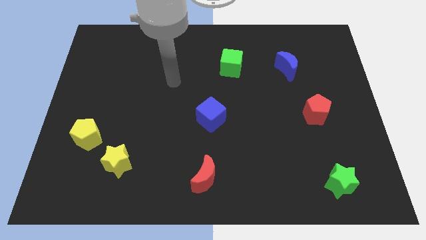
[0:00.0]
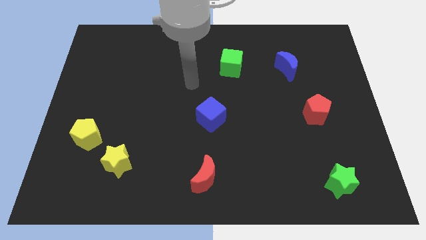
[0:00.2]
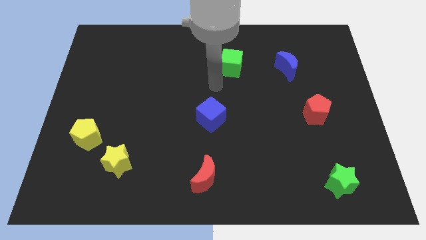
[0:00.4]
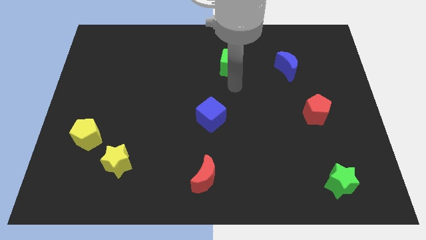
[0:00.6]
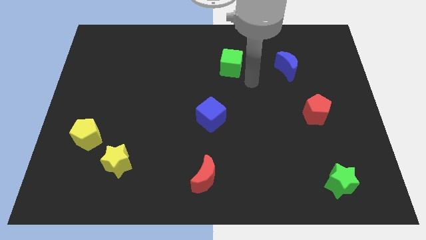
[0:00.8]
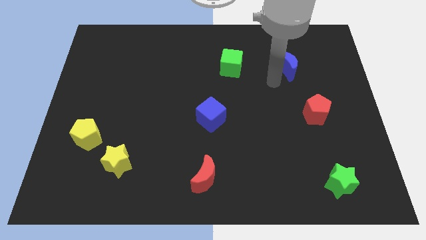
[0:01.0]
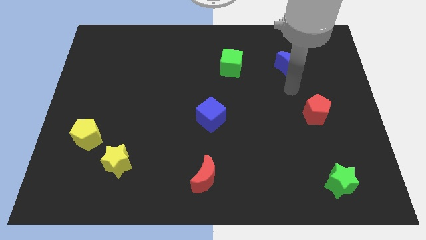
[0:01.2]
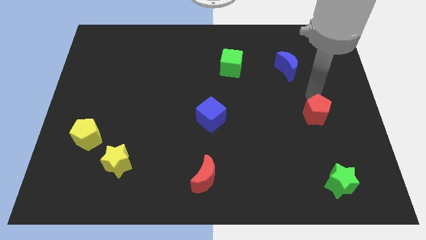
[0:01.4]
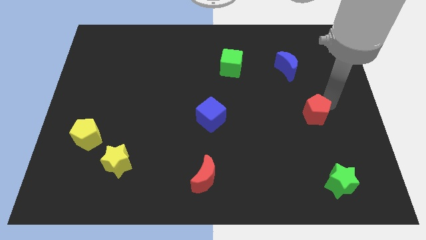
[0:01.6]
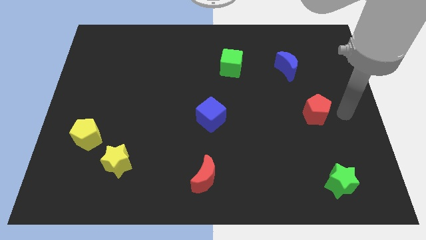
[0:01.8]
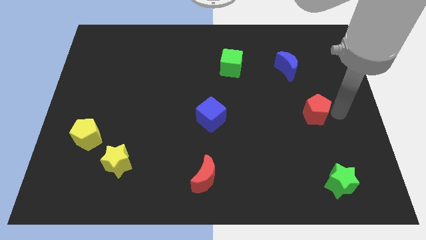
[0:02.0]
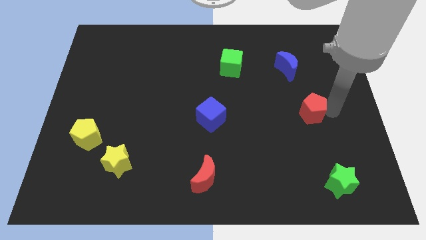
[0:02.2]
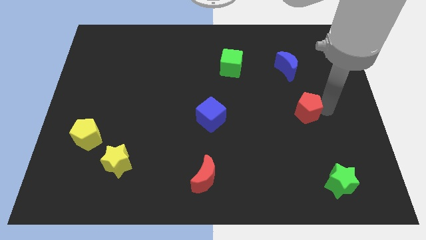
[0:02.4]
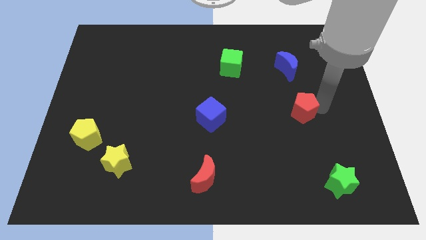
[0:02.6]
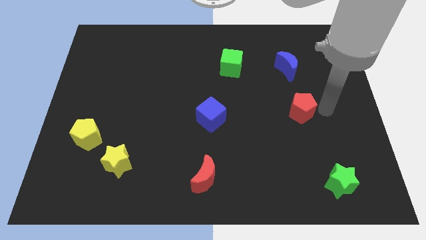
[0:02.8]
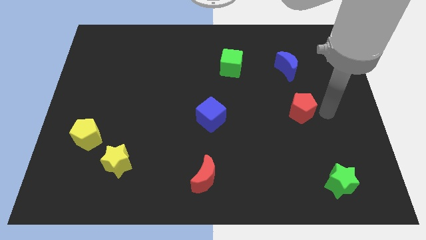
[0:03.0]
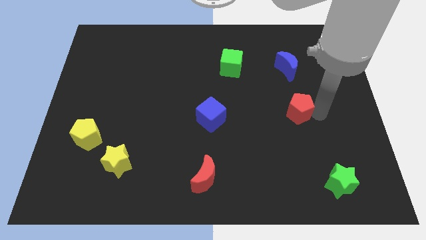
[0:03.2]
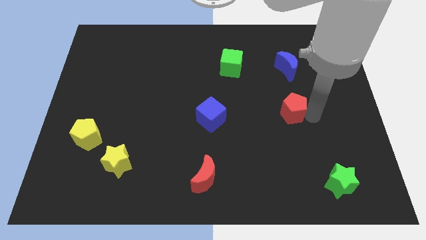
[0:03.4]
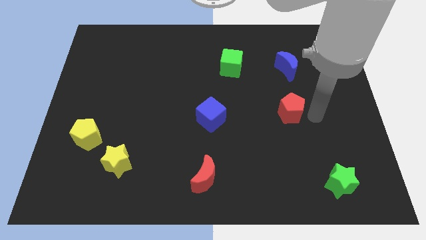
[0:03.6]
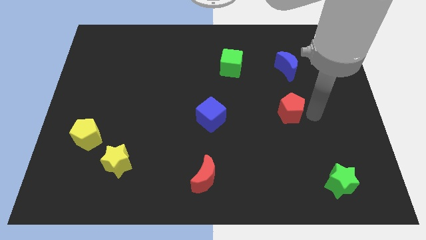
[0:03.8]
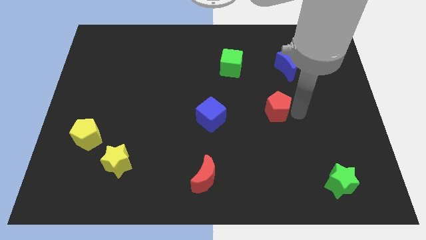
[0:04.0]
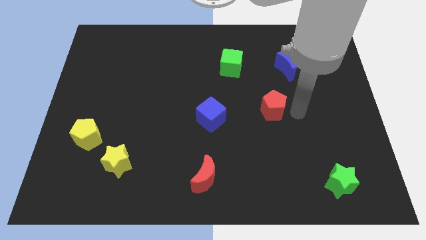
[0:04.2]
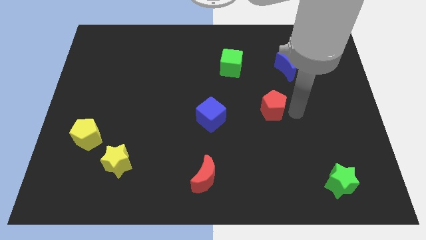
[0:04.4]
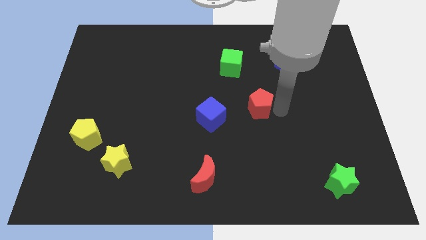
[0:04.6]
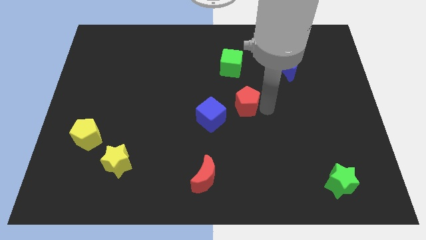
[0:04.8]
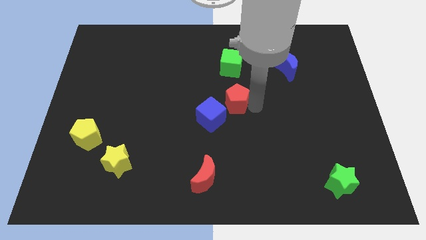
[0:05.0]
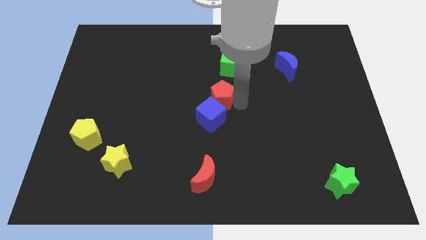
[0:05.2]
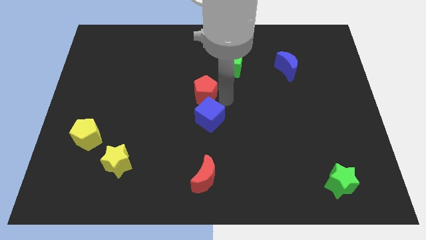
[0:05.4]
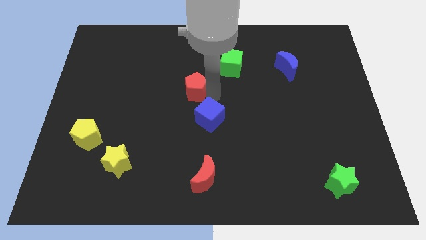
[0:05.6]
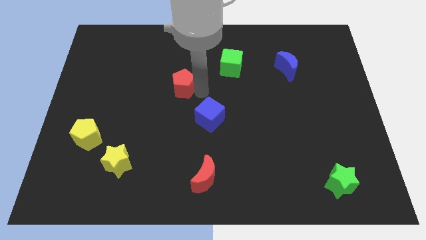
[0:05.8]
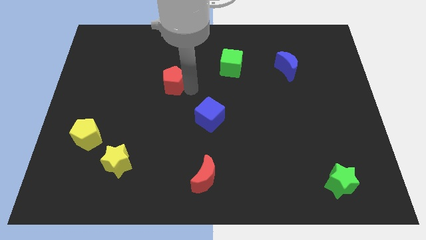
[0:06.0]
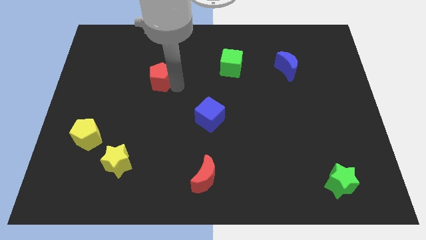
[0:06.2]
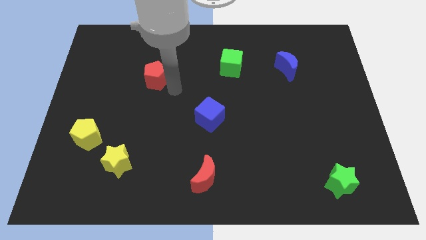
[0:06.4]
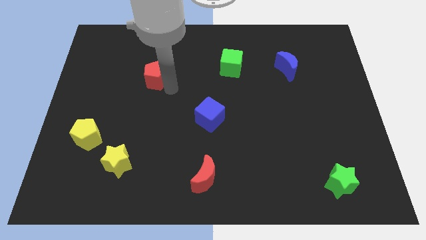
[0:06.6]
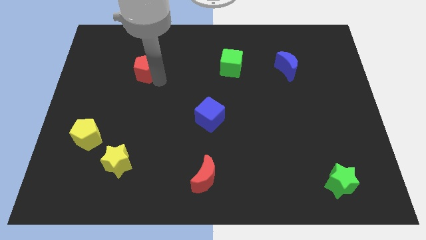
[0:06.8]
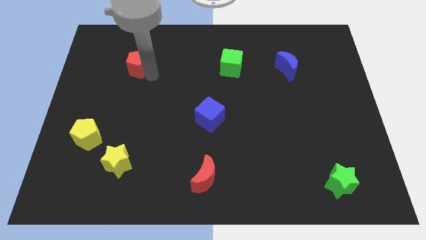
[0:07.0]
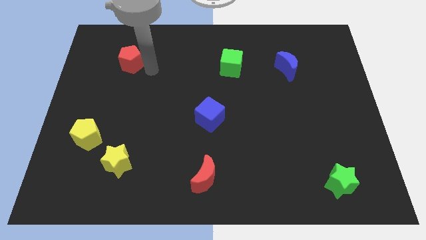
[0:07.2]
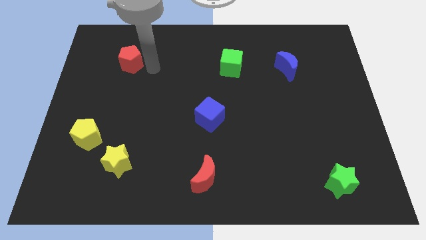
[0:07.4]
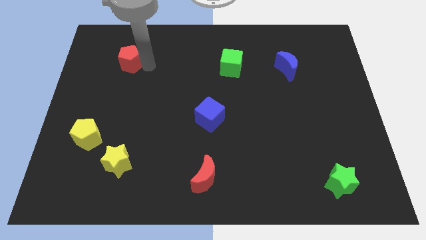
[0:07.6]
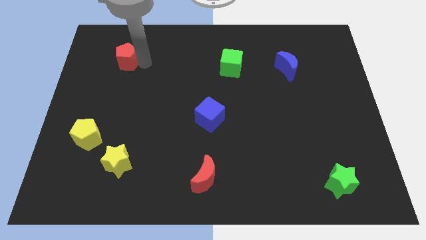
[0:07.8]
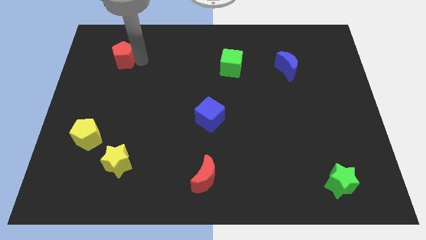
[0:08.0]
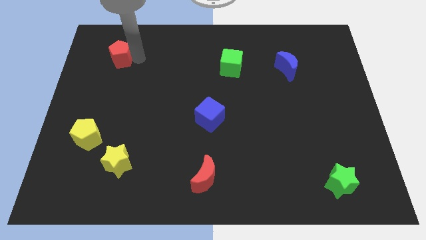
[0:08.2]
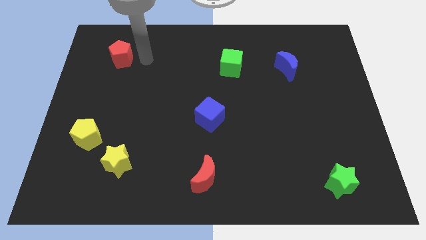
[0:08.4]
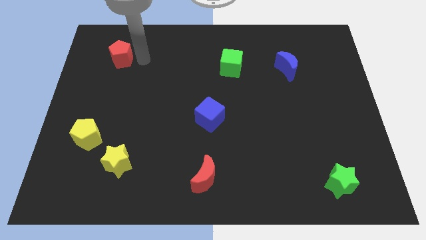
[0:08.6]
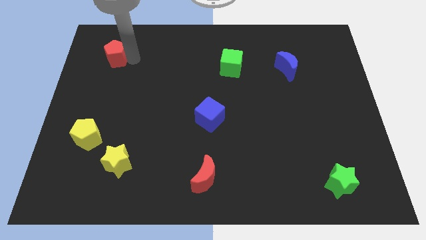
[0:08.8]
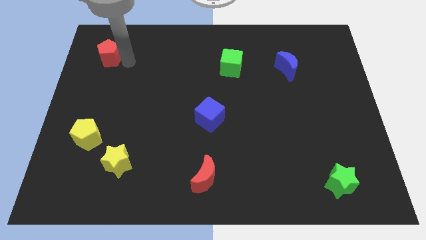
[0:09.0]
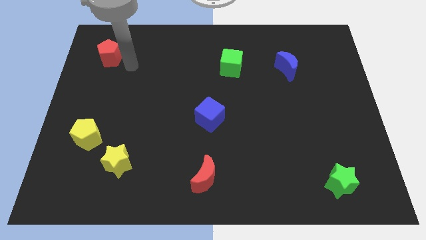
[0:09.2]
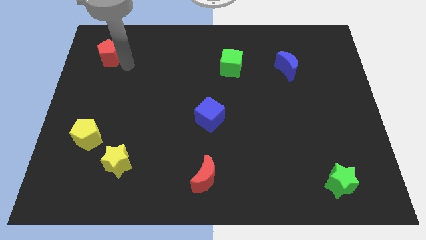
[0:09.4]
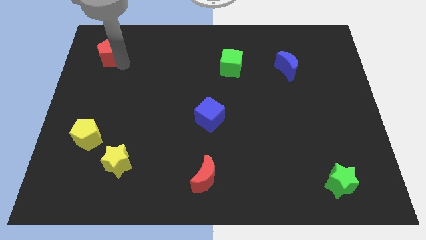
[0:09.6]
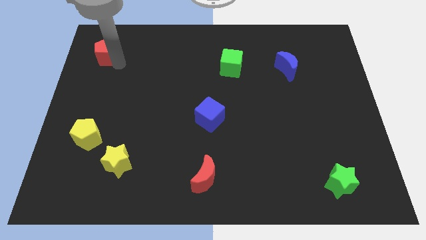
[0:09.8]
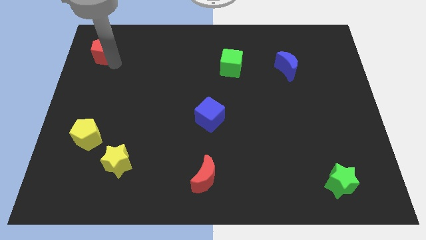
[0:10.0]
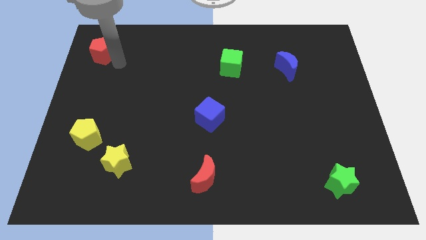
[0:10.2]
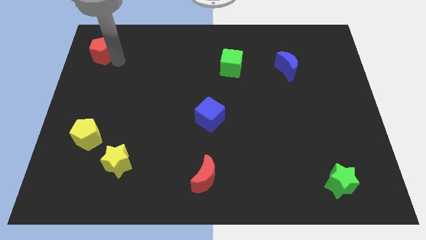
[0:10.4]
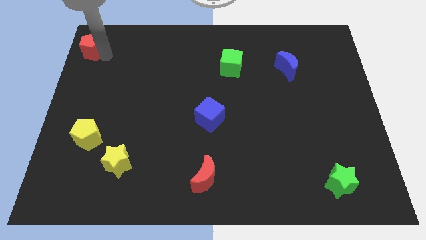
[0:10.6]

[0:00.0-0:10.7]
slide the red pentagon to the top left of the board

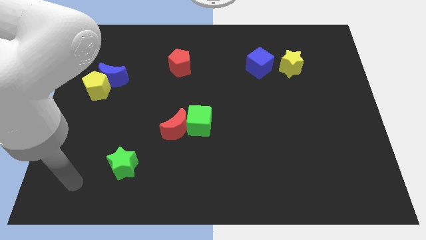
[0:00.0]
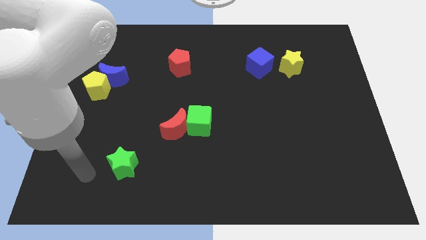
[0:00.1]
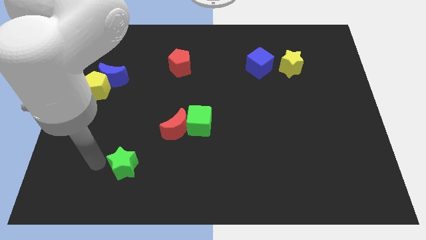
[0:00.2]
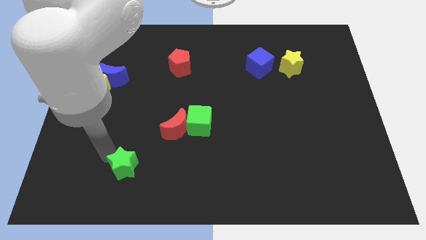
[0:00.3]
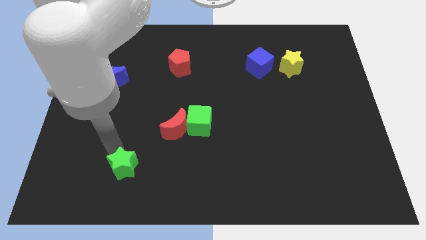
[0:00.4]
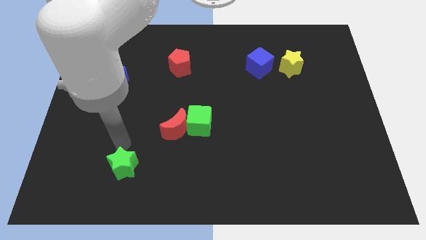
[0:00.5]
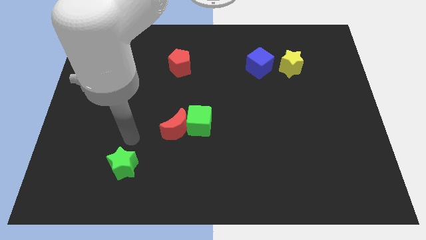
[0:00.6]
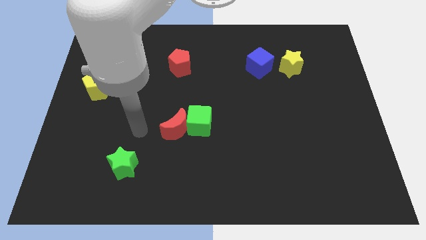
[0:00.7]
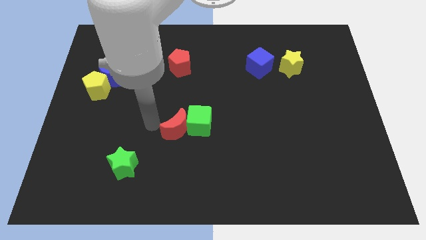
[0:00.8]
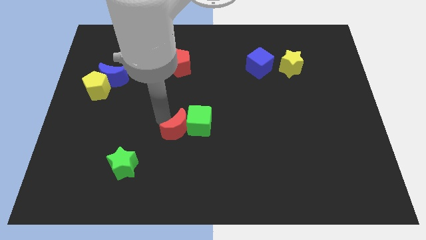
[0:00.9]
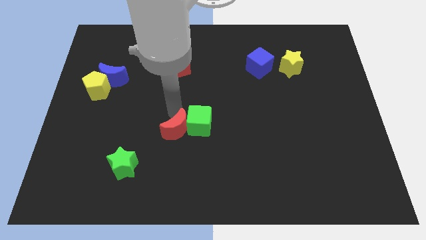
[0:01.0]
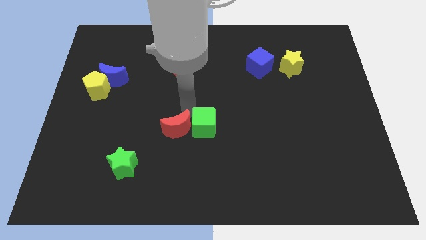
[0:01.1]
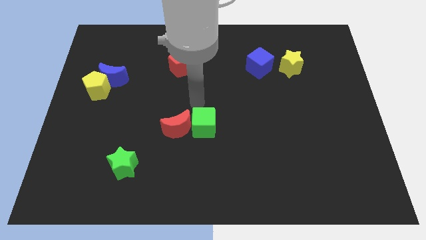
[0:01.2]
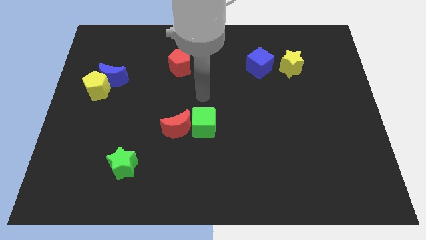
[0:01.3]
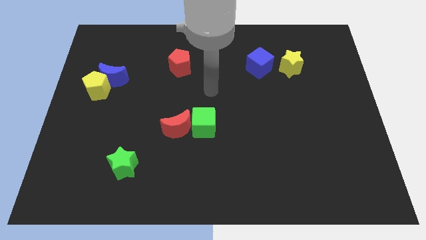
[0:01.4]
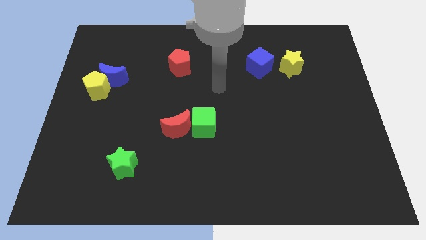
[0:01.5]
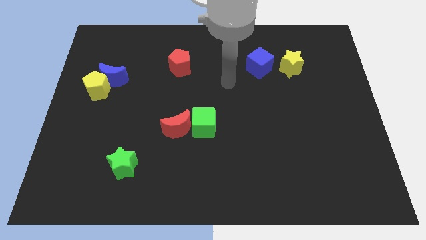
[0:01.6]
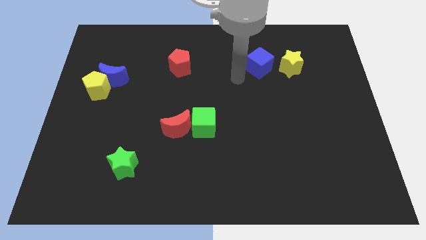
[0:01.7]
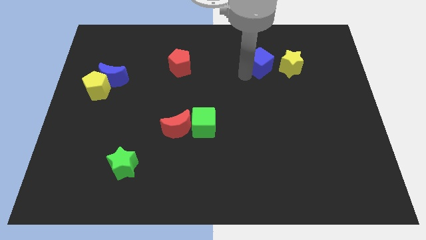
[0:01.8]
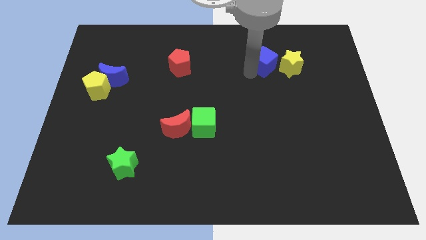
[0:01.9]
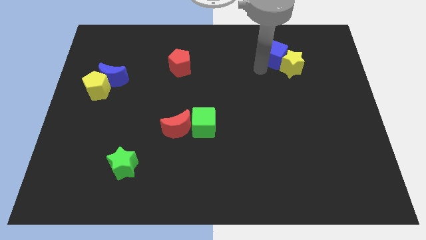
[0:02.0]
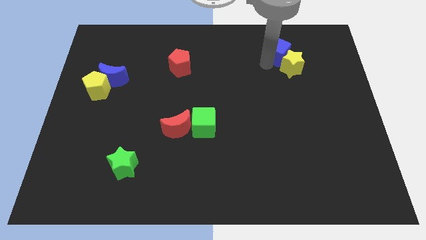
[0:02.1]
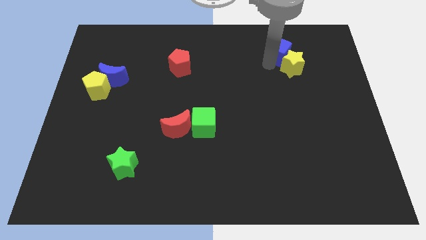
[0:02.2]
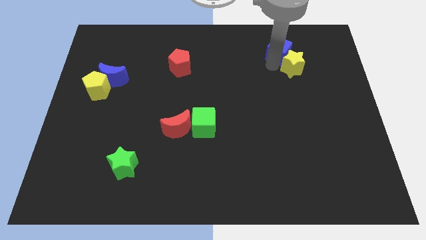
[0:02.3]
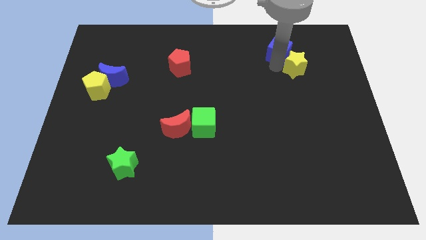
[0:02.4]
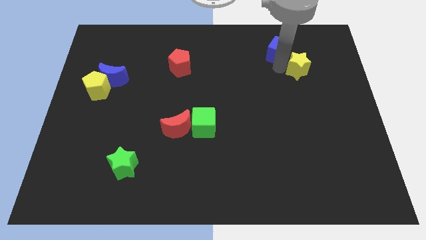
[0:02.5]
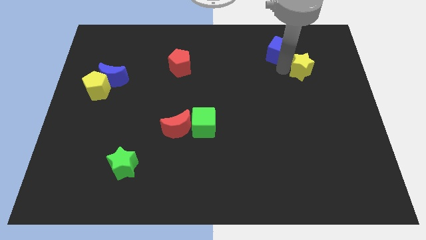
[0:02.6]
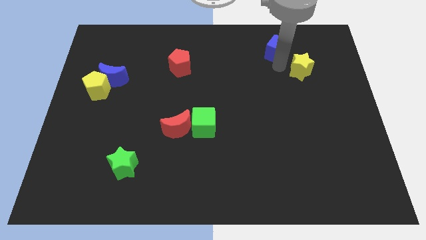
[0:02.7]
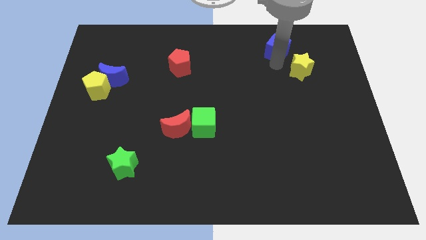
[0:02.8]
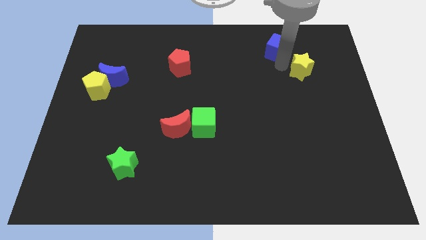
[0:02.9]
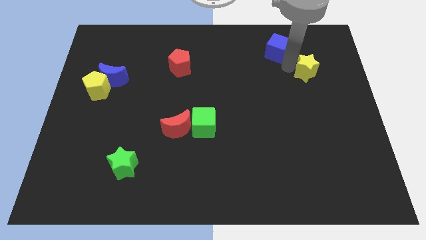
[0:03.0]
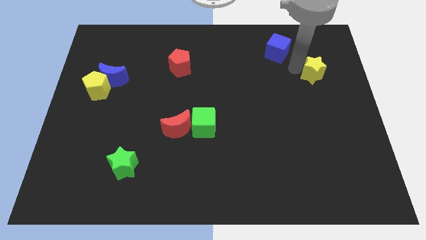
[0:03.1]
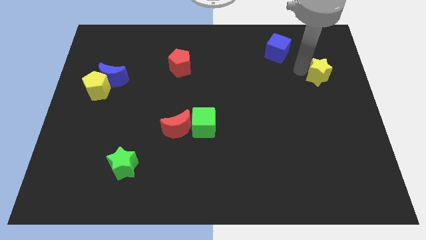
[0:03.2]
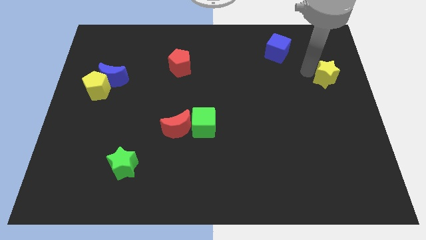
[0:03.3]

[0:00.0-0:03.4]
push the yellow star to the right side
